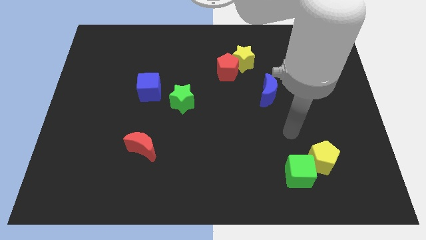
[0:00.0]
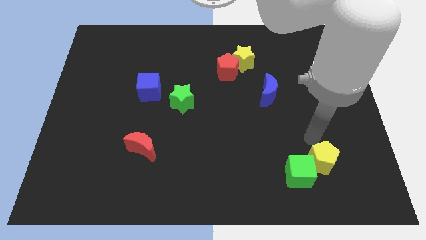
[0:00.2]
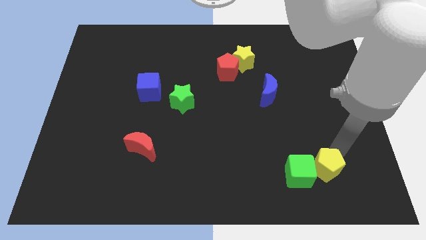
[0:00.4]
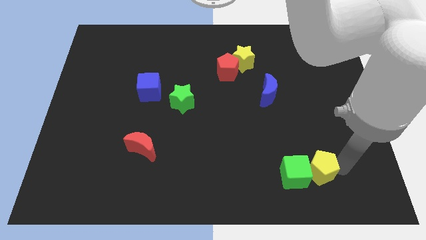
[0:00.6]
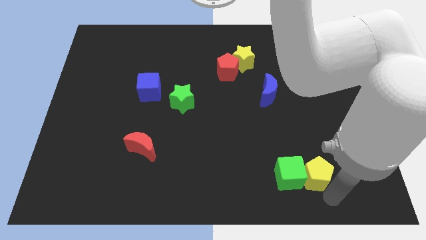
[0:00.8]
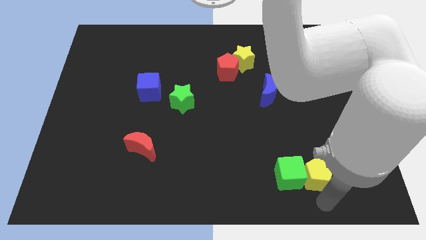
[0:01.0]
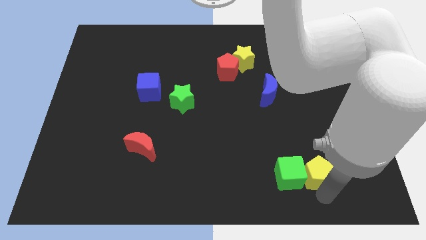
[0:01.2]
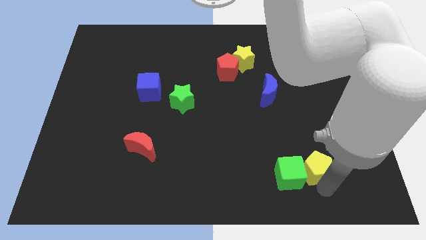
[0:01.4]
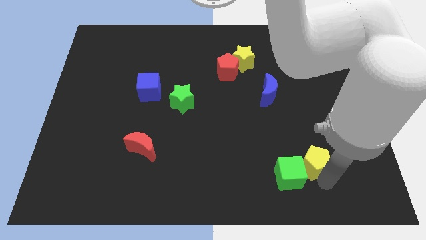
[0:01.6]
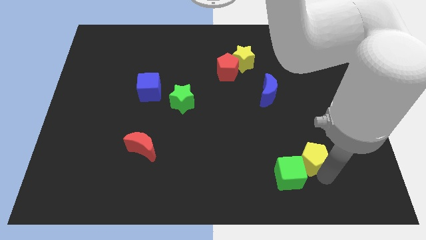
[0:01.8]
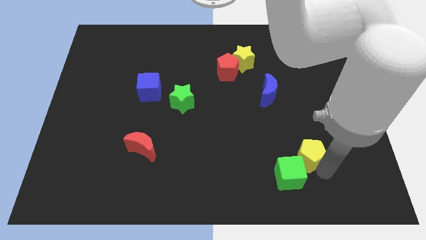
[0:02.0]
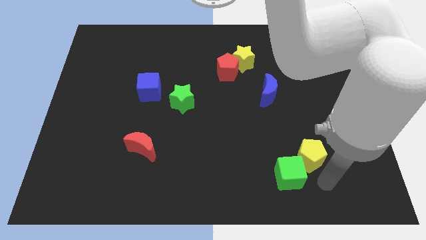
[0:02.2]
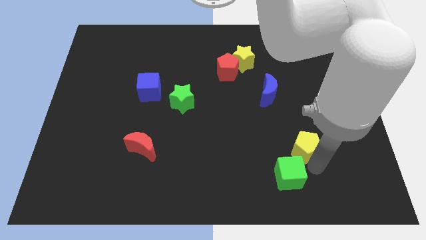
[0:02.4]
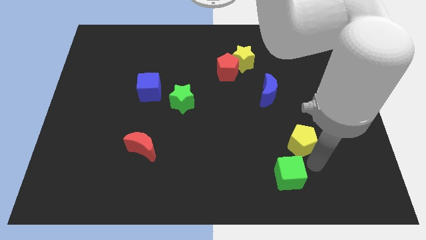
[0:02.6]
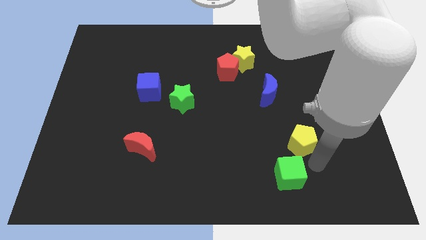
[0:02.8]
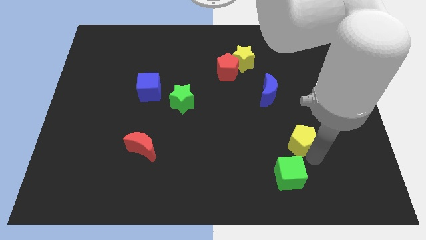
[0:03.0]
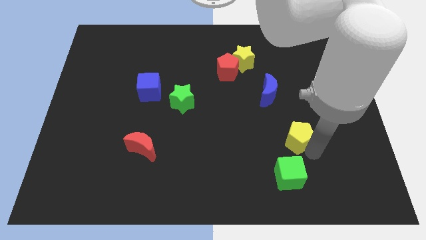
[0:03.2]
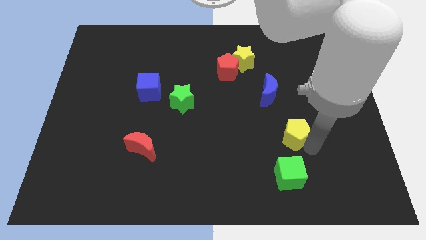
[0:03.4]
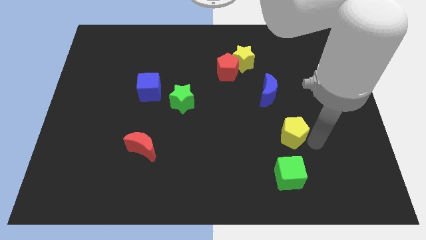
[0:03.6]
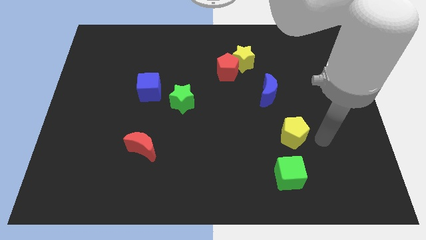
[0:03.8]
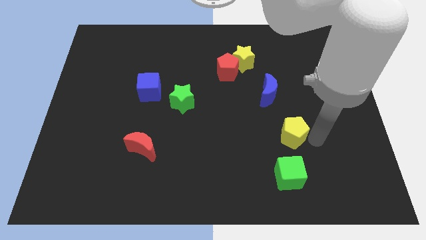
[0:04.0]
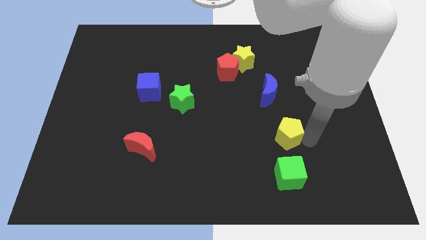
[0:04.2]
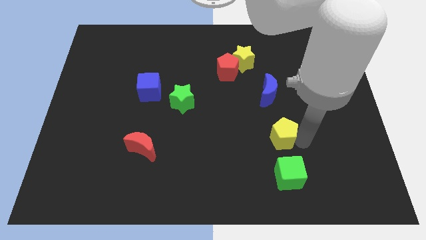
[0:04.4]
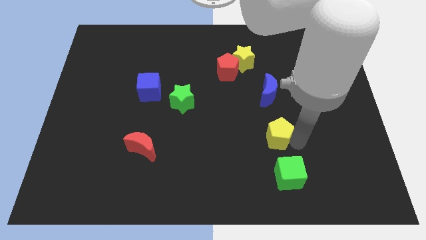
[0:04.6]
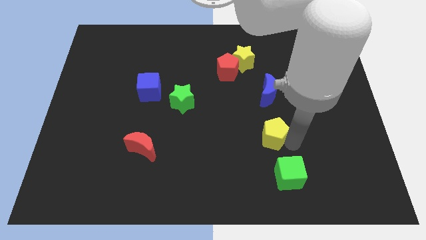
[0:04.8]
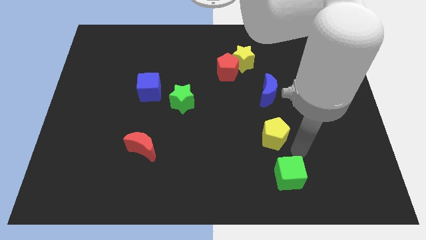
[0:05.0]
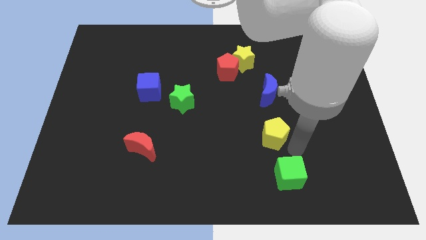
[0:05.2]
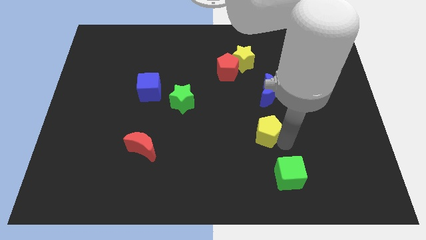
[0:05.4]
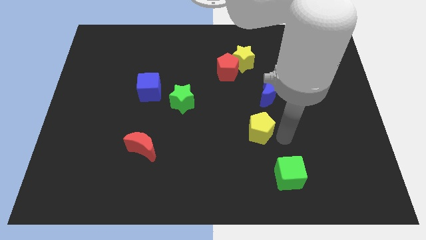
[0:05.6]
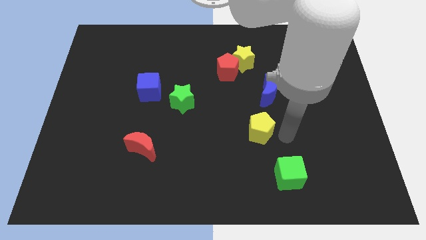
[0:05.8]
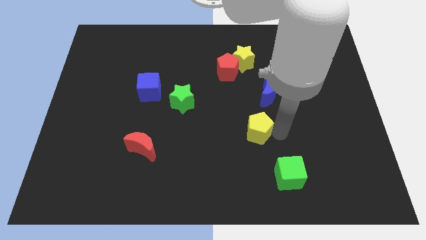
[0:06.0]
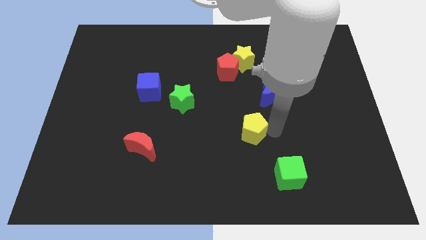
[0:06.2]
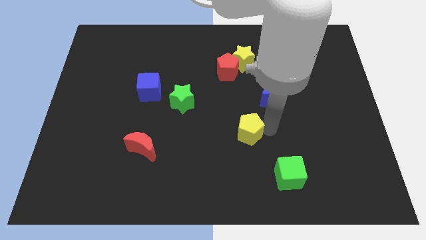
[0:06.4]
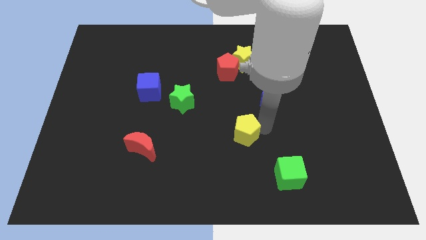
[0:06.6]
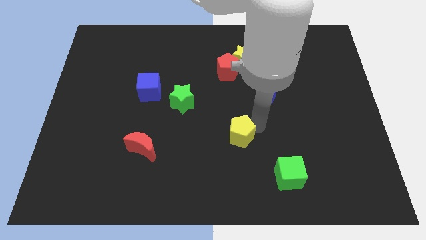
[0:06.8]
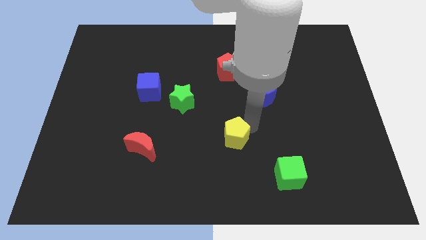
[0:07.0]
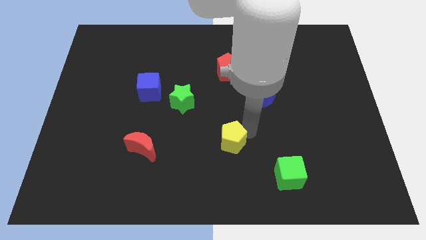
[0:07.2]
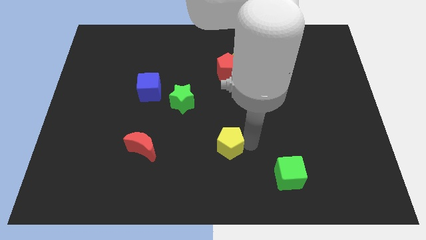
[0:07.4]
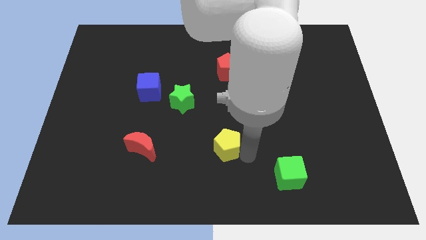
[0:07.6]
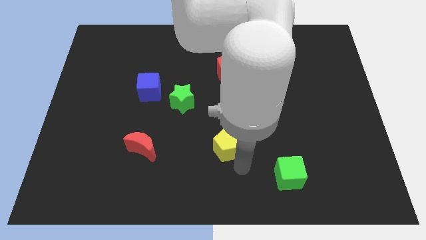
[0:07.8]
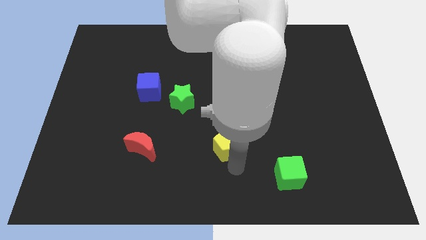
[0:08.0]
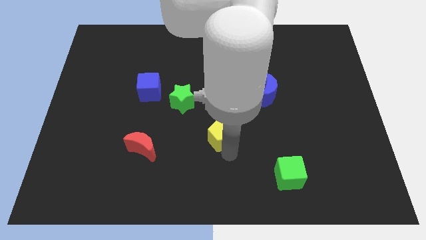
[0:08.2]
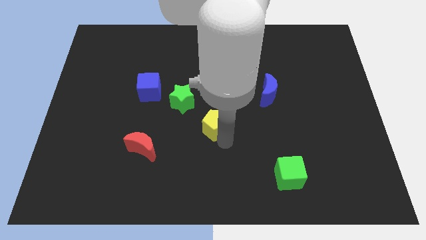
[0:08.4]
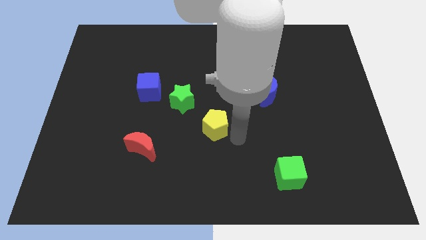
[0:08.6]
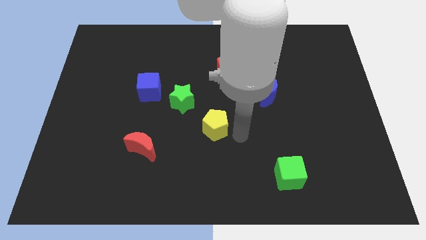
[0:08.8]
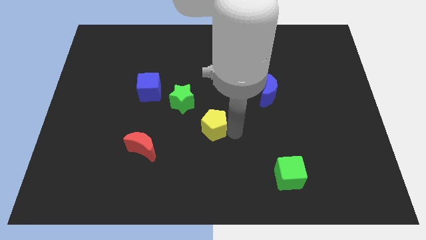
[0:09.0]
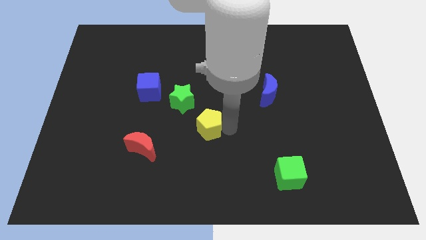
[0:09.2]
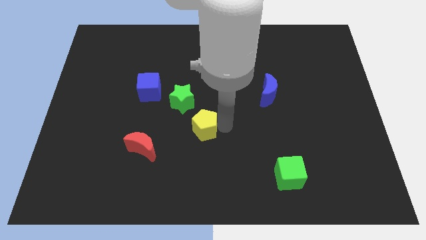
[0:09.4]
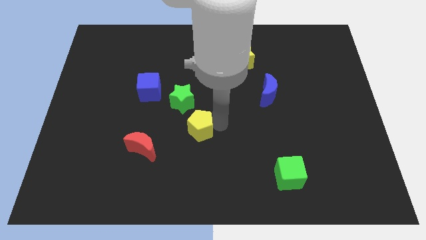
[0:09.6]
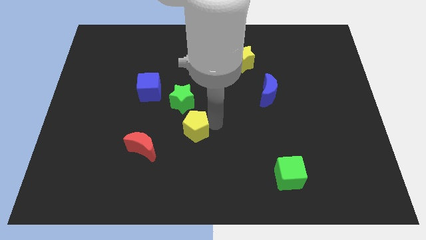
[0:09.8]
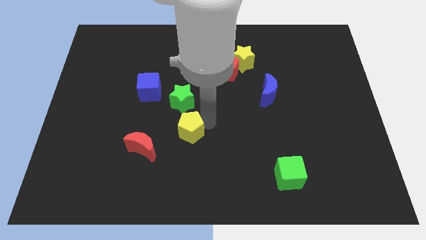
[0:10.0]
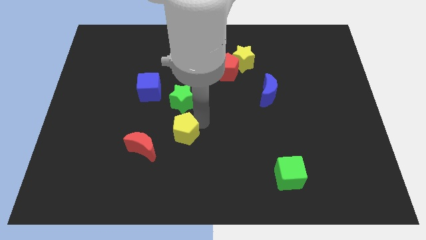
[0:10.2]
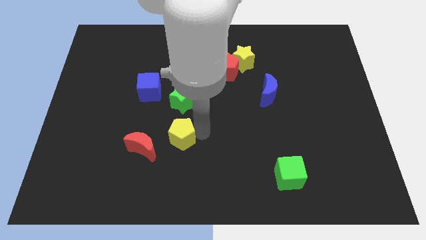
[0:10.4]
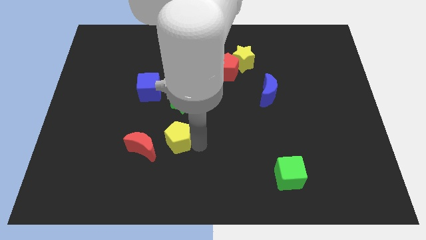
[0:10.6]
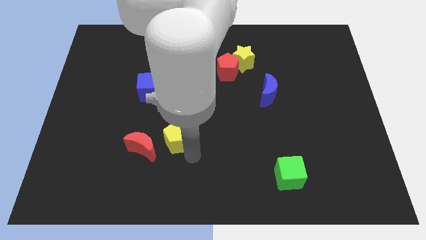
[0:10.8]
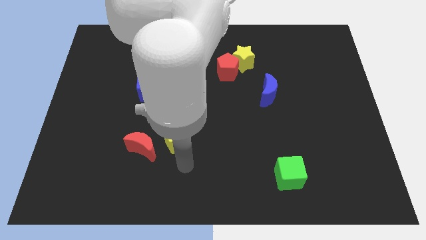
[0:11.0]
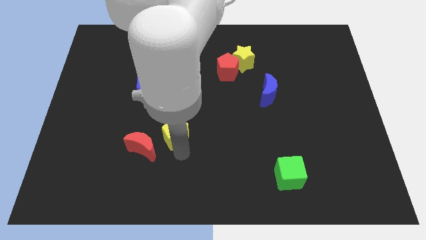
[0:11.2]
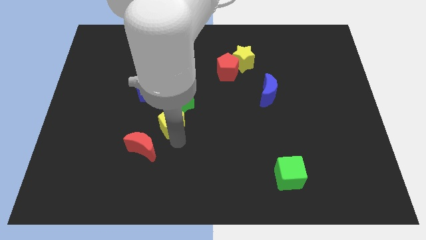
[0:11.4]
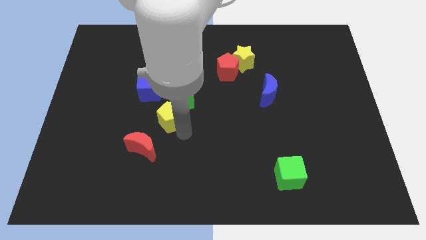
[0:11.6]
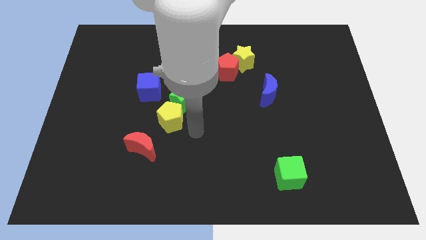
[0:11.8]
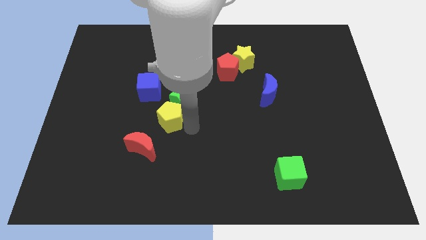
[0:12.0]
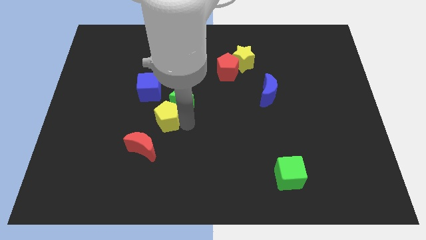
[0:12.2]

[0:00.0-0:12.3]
move the yellow pentagon to the top of the red moon
